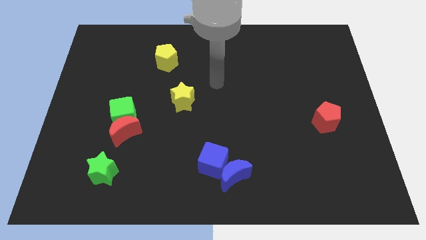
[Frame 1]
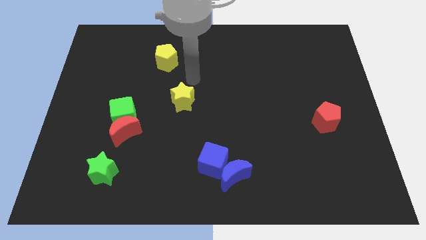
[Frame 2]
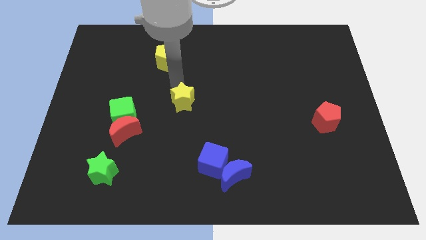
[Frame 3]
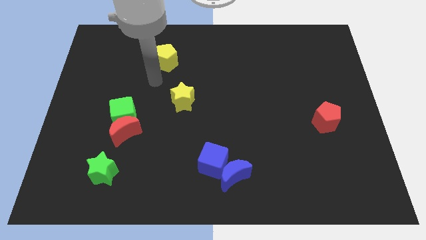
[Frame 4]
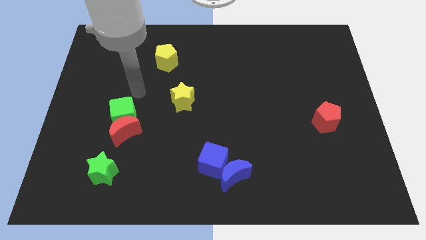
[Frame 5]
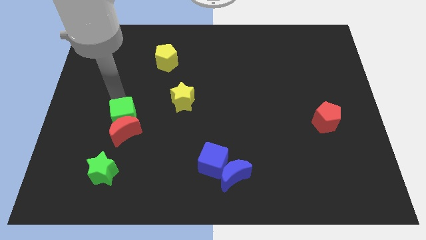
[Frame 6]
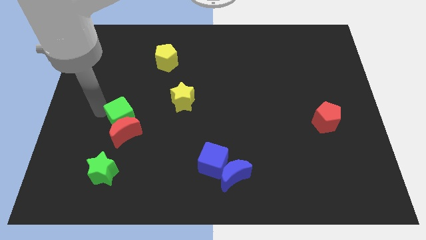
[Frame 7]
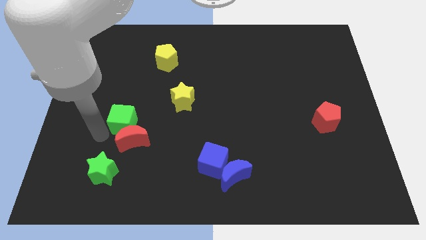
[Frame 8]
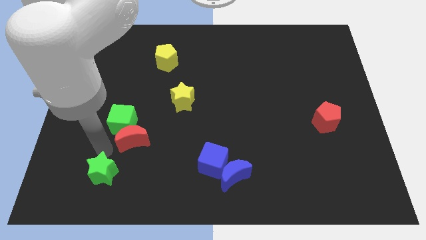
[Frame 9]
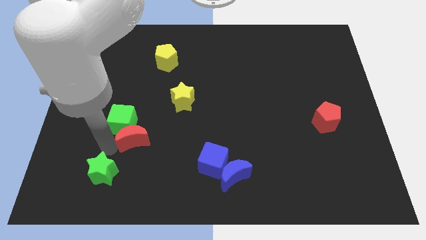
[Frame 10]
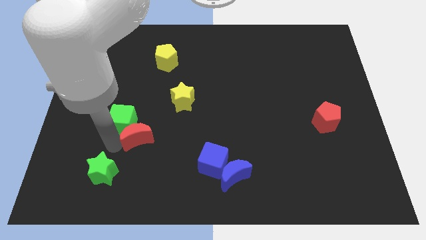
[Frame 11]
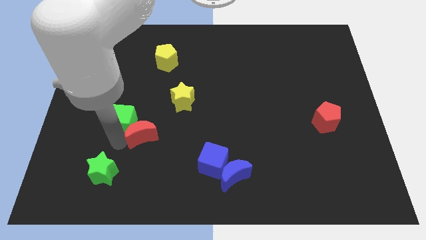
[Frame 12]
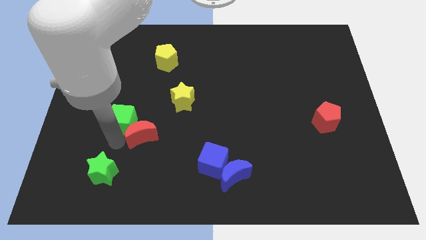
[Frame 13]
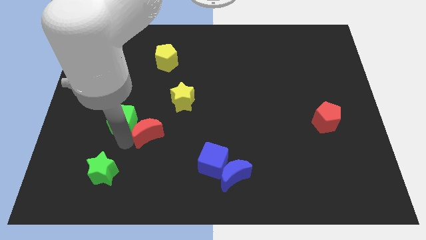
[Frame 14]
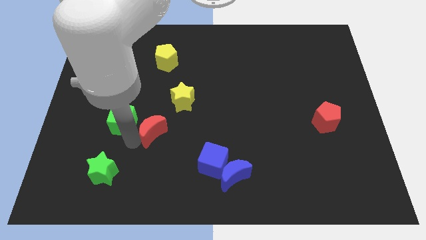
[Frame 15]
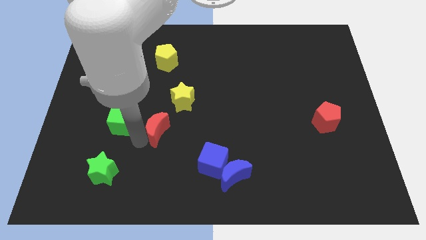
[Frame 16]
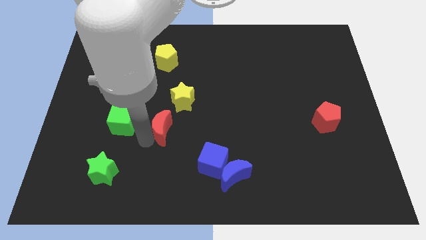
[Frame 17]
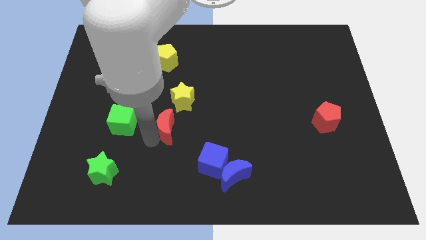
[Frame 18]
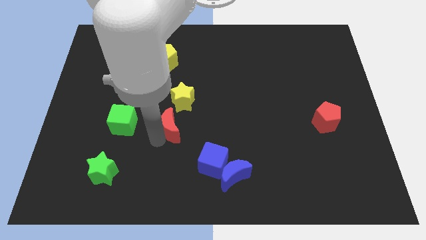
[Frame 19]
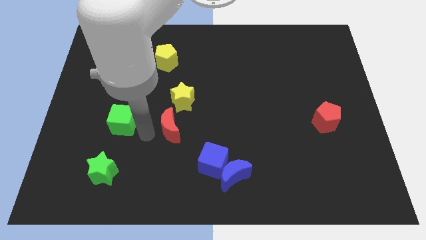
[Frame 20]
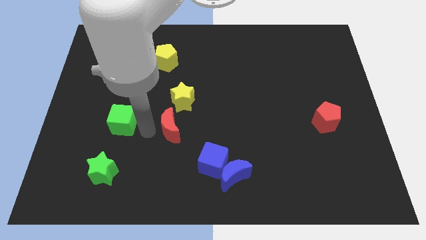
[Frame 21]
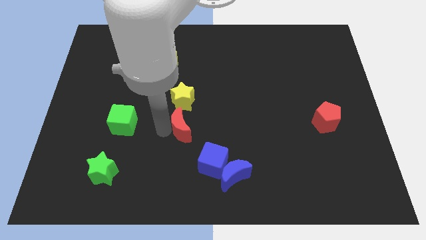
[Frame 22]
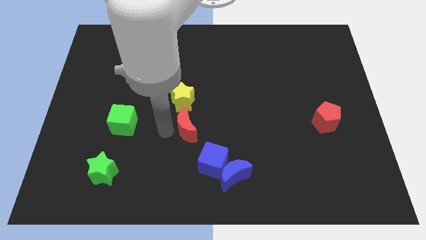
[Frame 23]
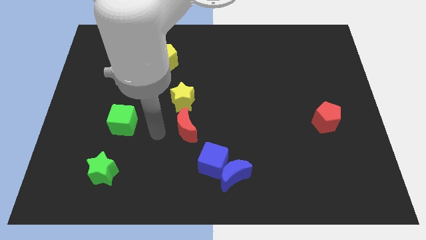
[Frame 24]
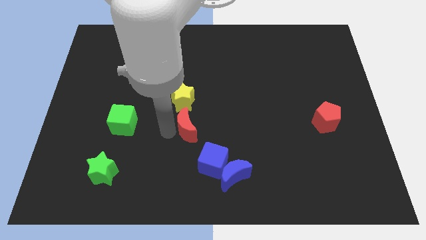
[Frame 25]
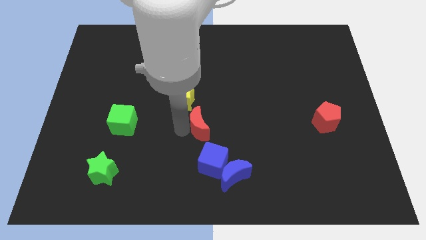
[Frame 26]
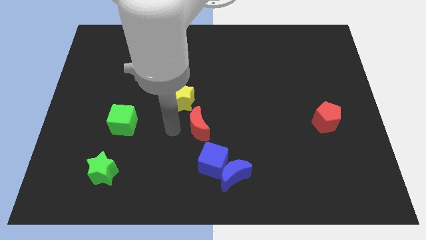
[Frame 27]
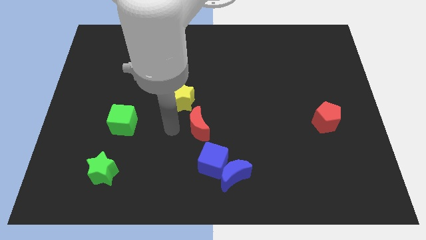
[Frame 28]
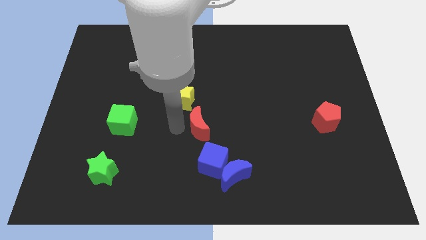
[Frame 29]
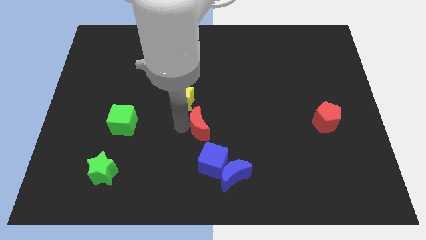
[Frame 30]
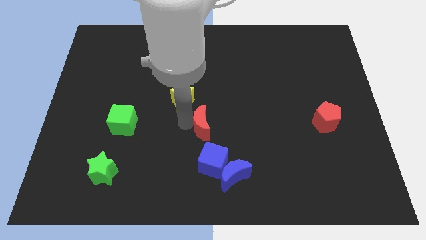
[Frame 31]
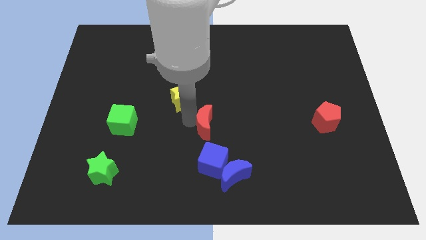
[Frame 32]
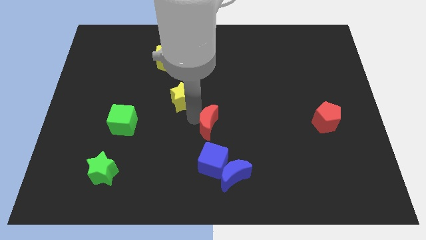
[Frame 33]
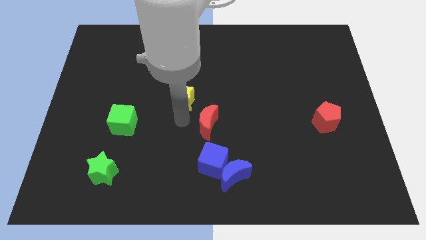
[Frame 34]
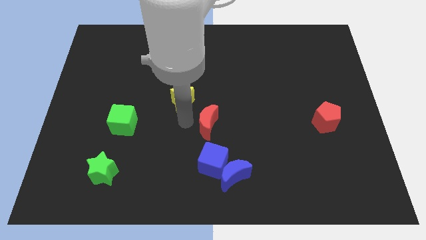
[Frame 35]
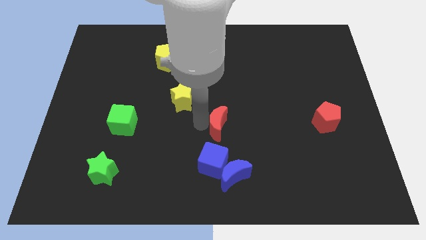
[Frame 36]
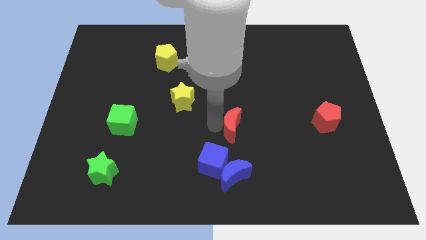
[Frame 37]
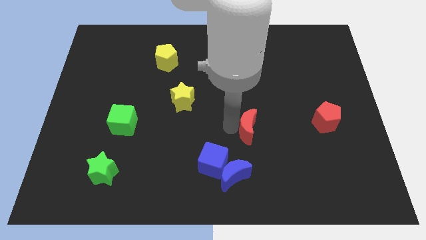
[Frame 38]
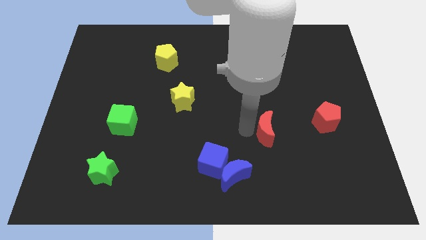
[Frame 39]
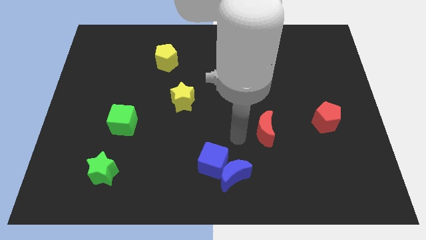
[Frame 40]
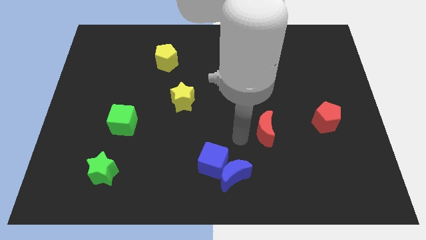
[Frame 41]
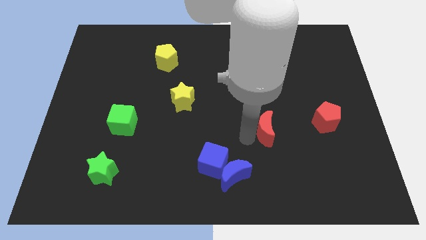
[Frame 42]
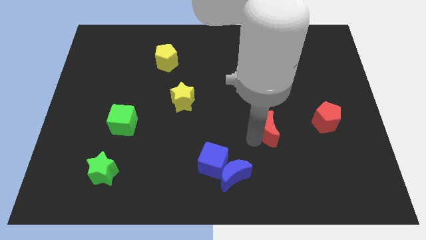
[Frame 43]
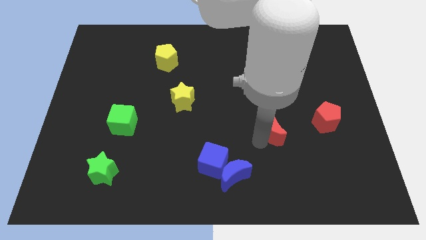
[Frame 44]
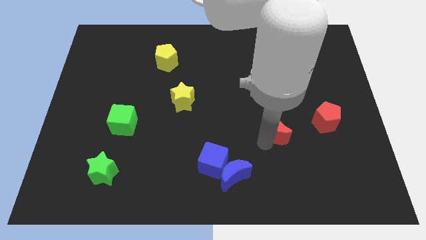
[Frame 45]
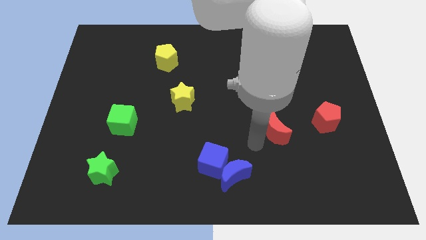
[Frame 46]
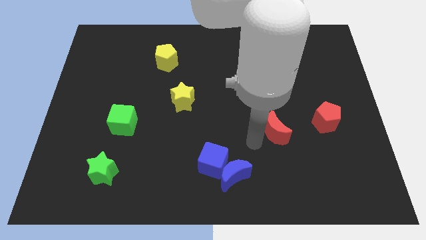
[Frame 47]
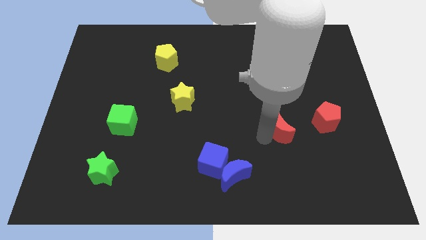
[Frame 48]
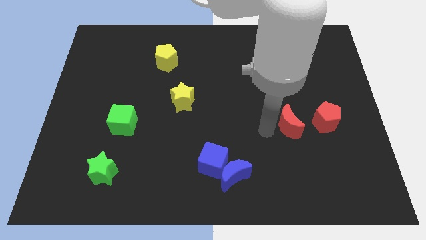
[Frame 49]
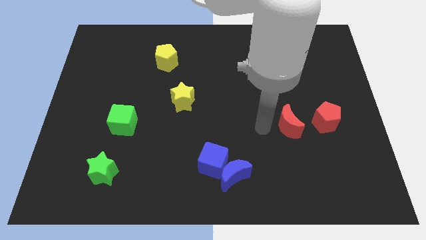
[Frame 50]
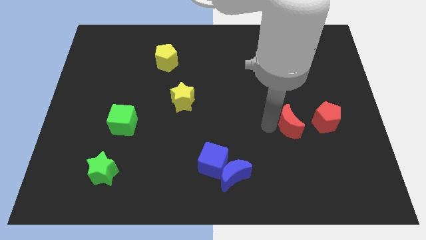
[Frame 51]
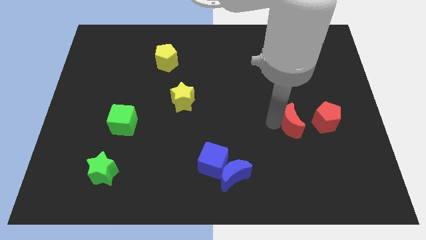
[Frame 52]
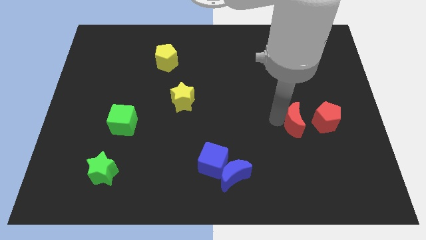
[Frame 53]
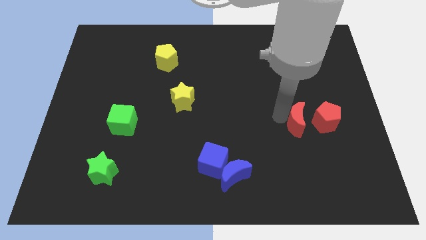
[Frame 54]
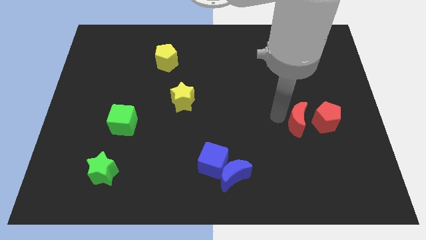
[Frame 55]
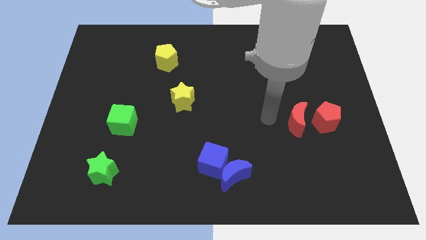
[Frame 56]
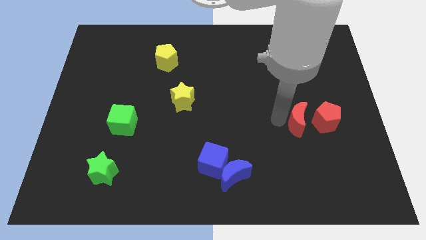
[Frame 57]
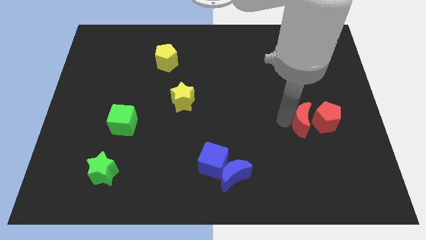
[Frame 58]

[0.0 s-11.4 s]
slide the red moon towards the red pentagon

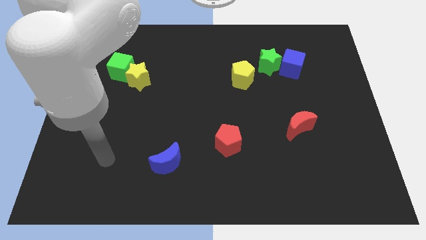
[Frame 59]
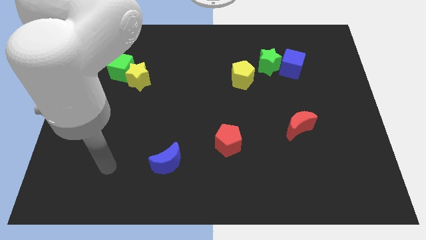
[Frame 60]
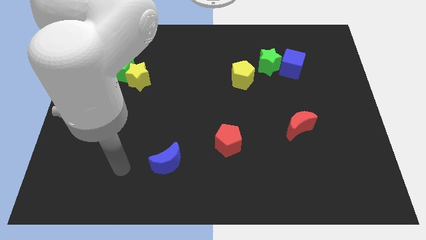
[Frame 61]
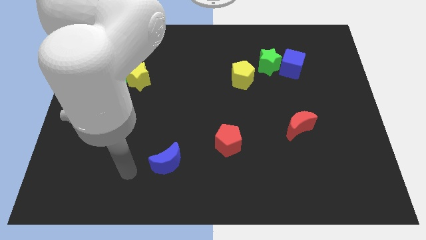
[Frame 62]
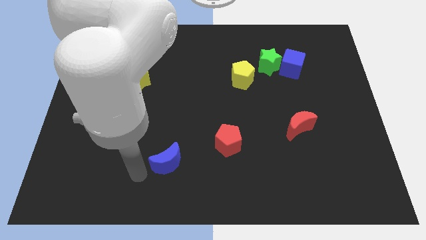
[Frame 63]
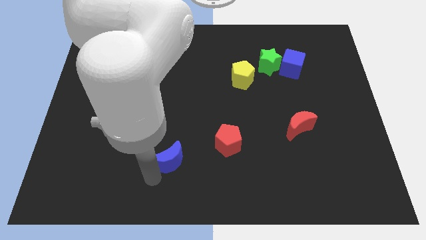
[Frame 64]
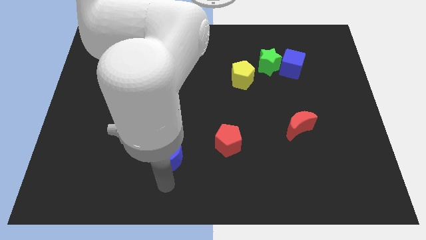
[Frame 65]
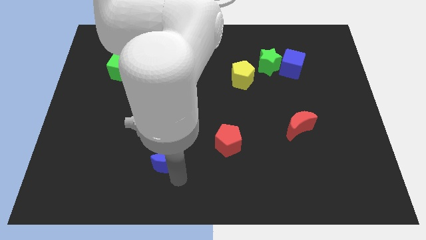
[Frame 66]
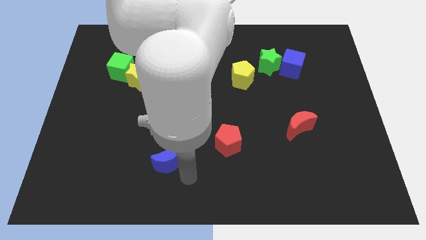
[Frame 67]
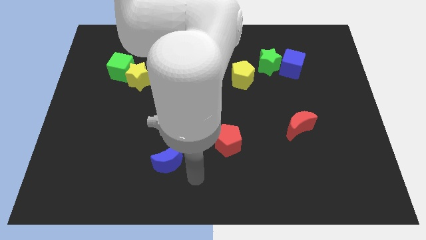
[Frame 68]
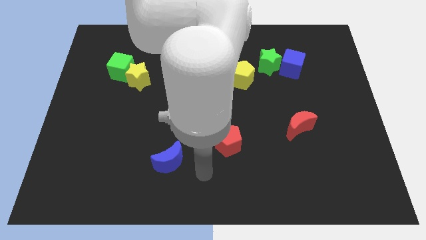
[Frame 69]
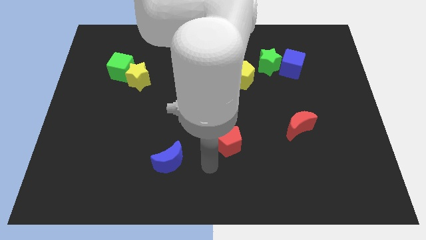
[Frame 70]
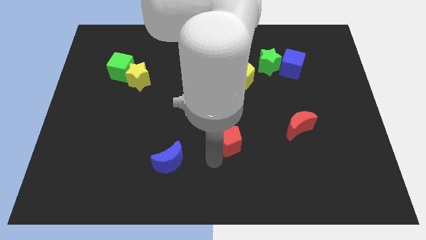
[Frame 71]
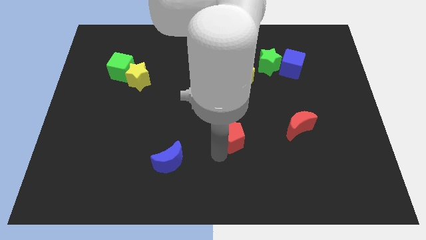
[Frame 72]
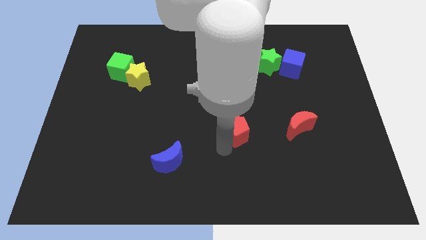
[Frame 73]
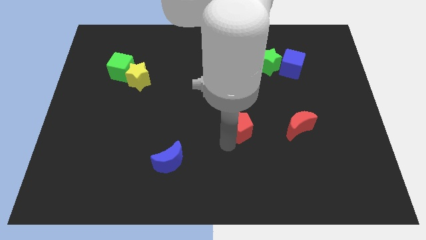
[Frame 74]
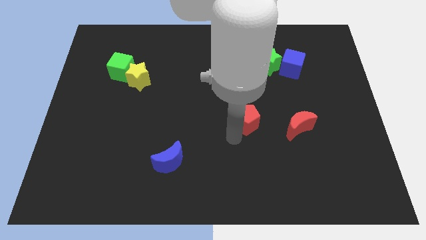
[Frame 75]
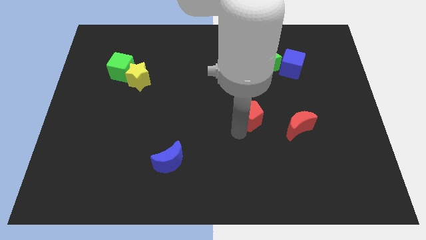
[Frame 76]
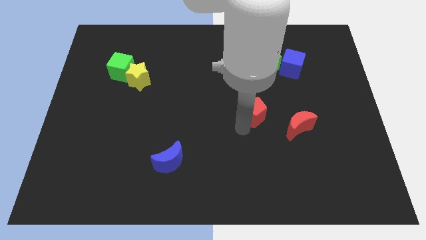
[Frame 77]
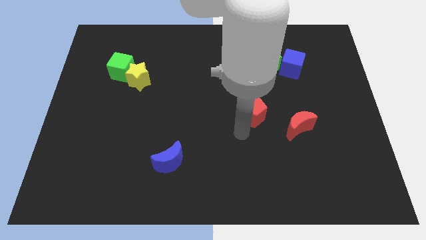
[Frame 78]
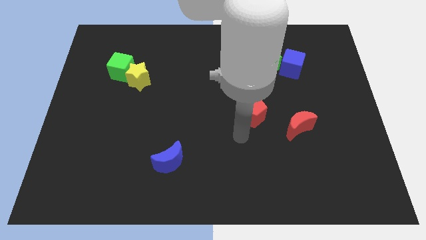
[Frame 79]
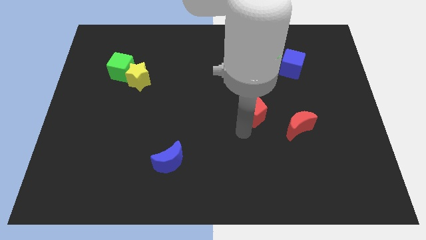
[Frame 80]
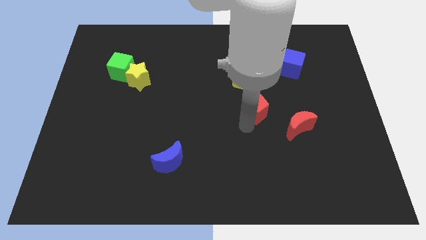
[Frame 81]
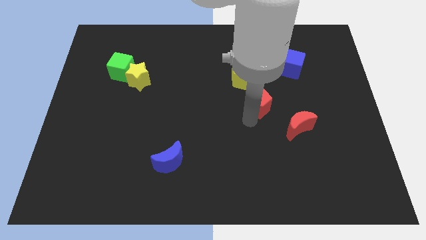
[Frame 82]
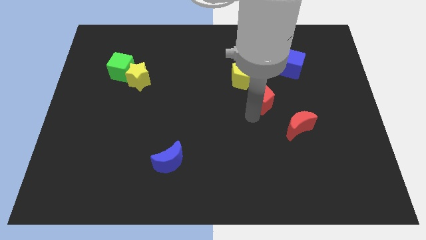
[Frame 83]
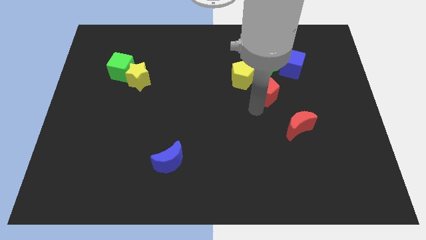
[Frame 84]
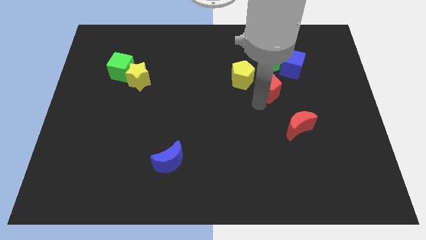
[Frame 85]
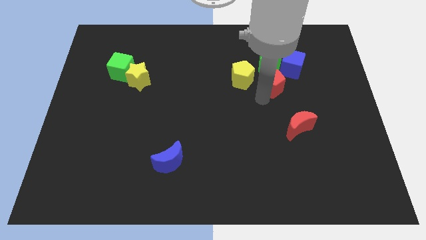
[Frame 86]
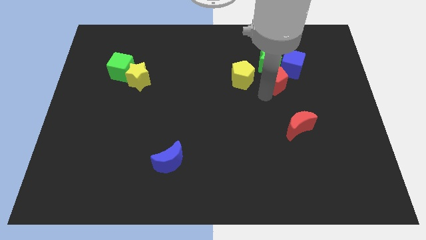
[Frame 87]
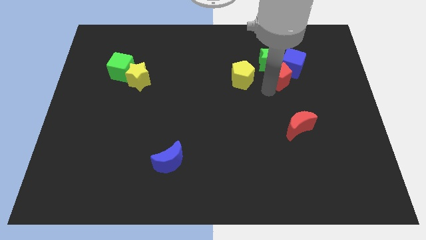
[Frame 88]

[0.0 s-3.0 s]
slide the red pentagon next to the blue cube
